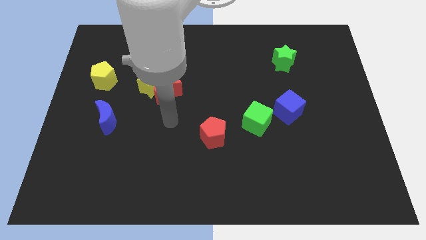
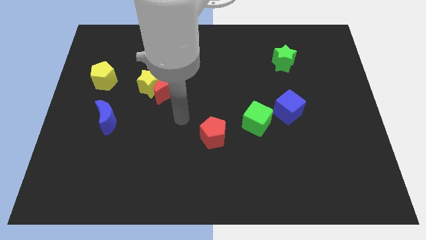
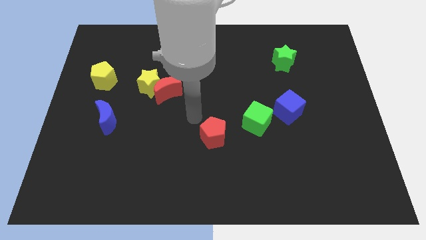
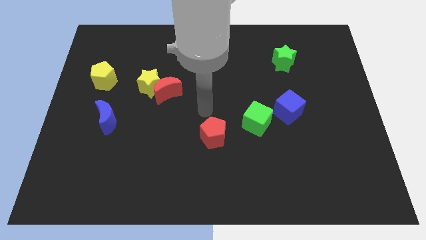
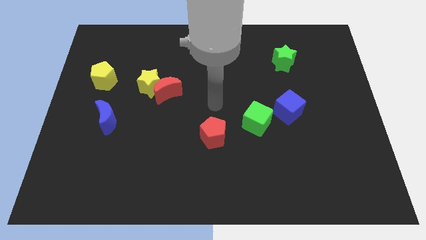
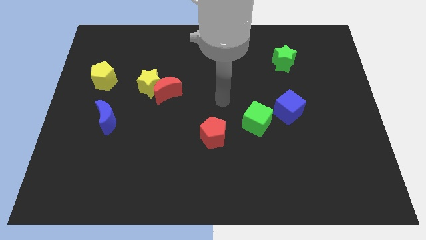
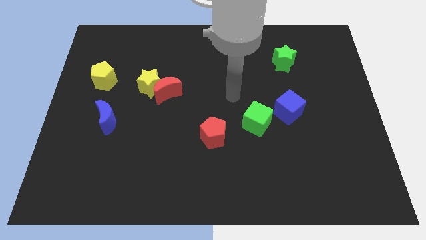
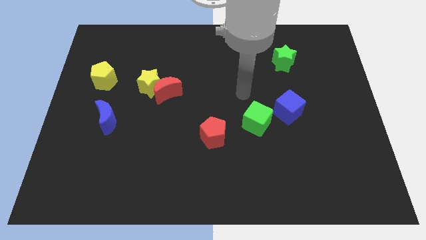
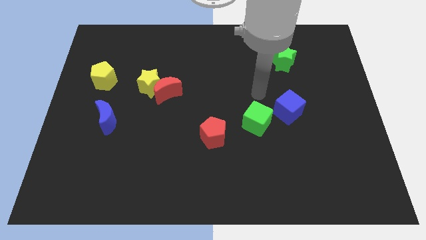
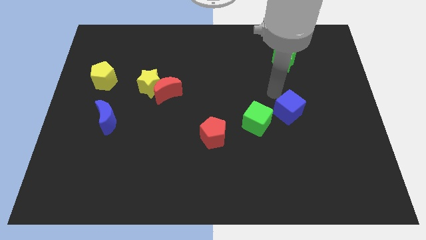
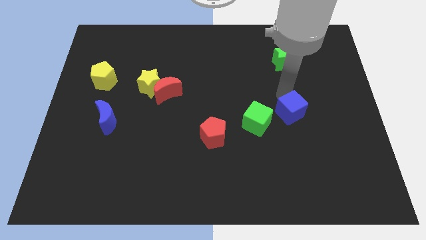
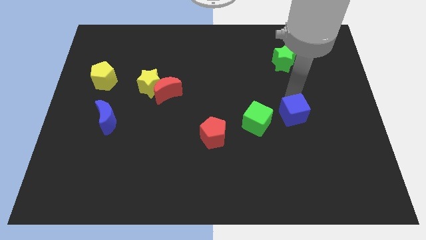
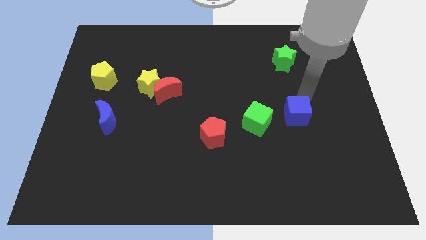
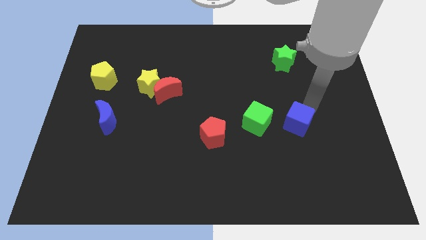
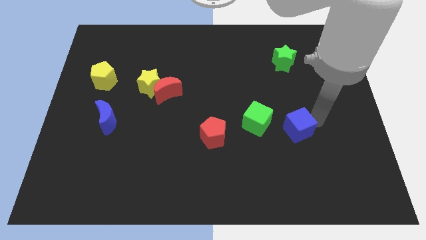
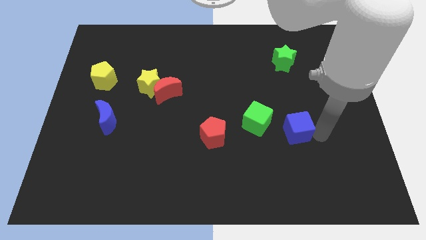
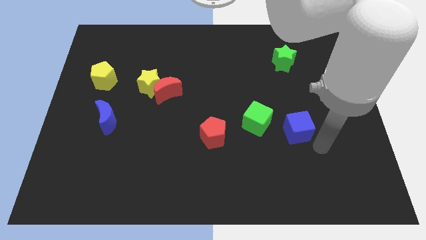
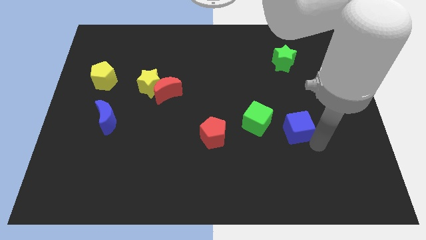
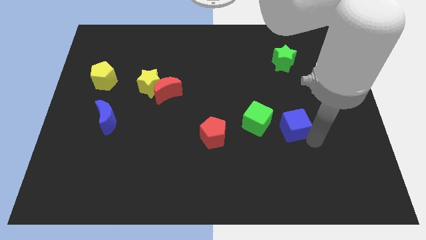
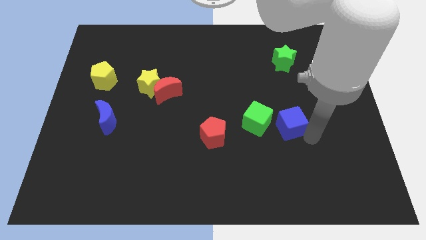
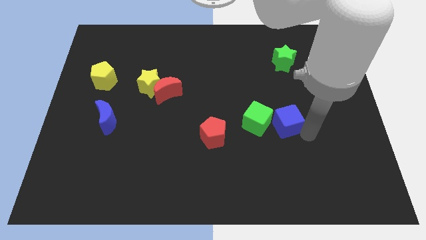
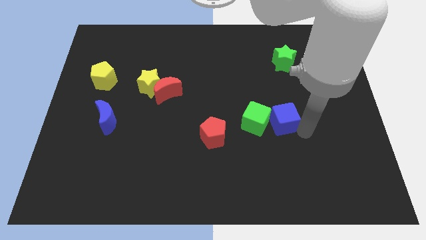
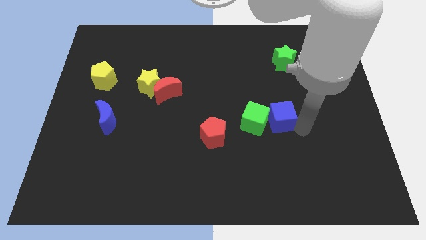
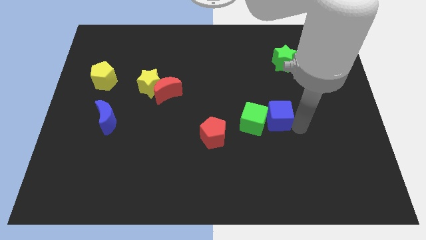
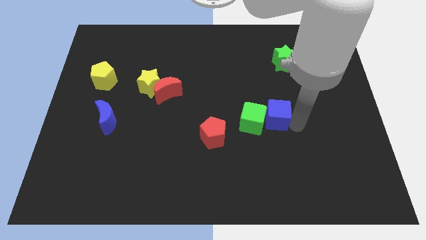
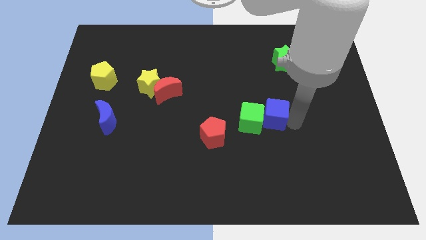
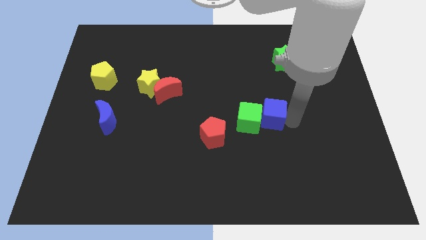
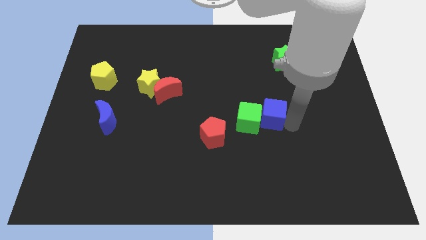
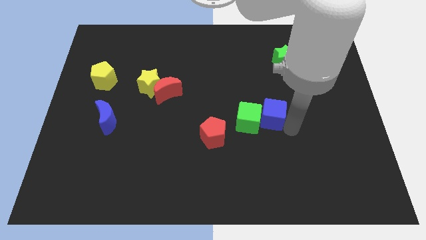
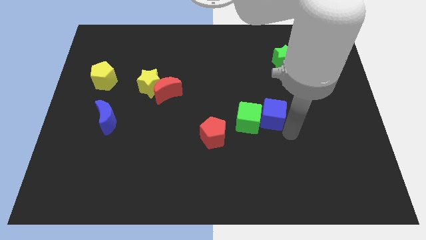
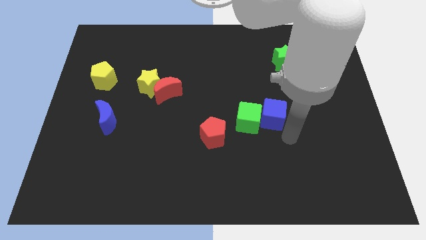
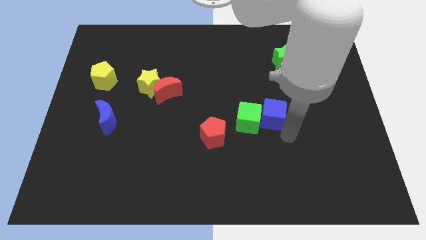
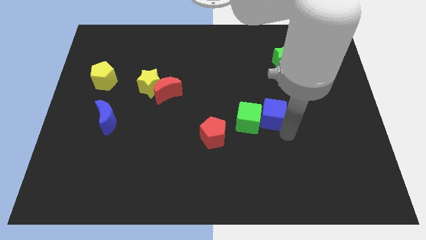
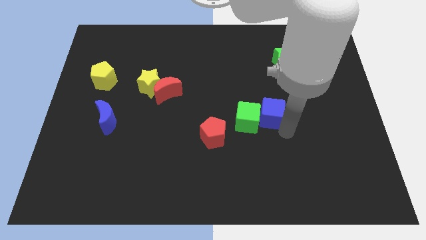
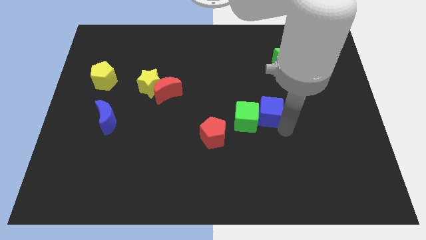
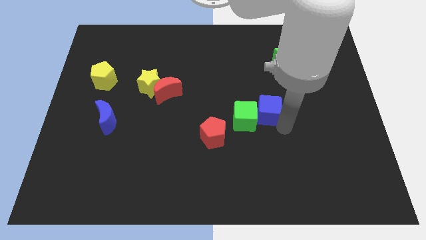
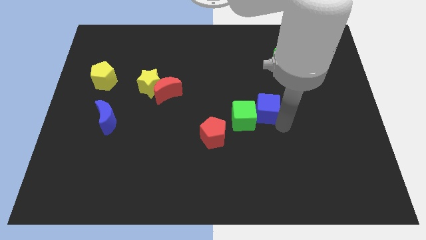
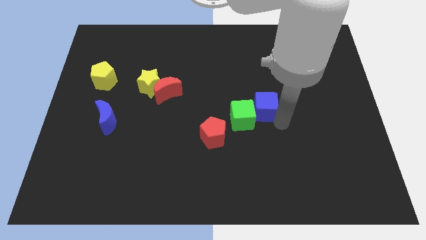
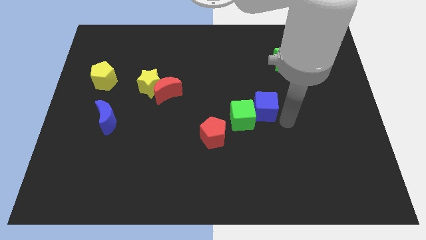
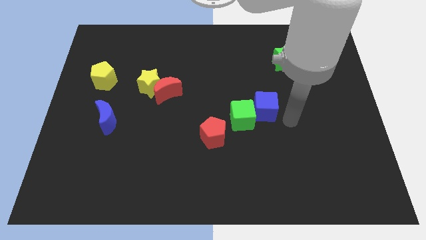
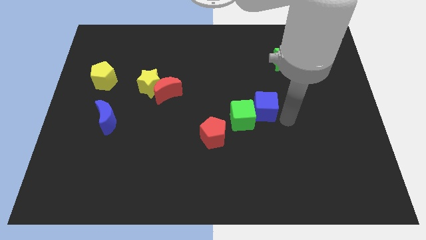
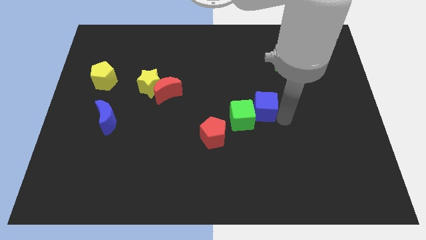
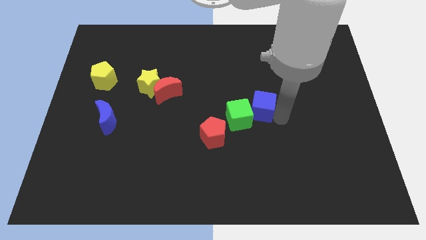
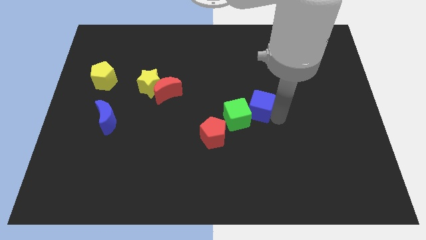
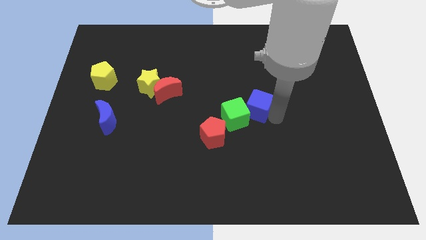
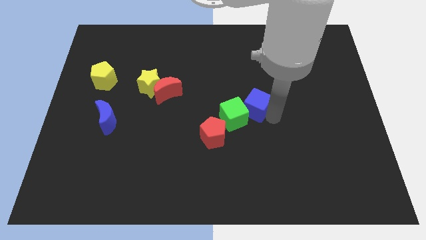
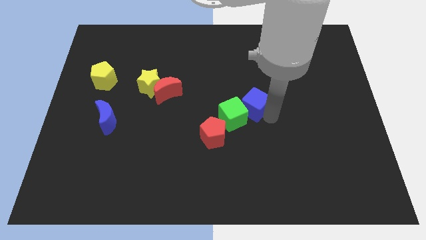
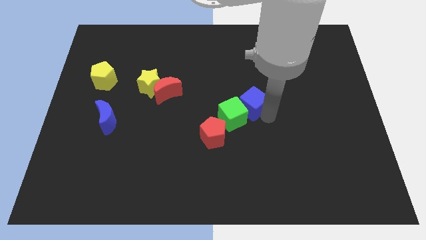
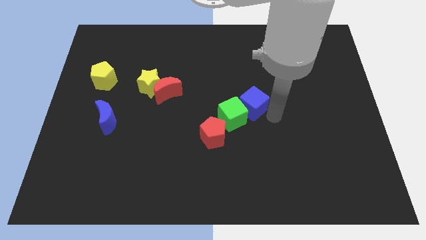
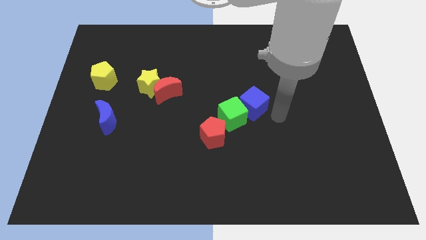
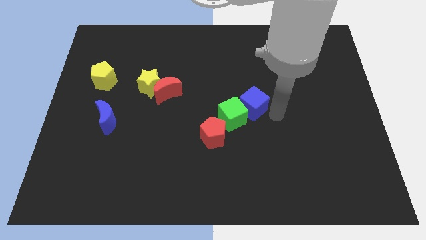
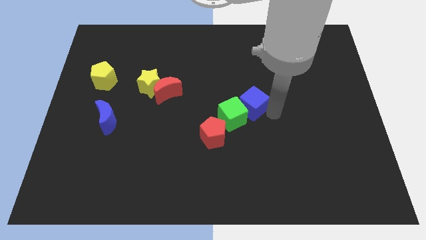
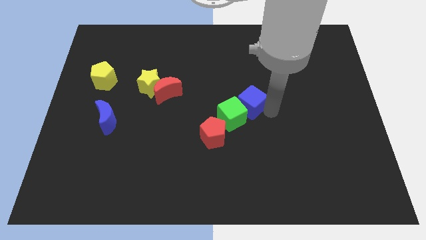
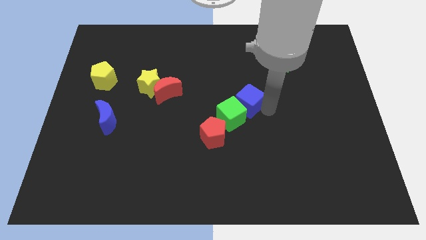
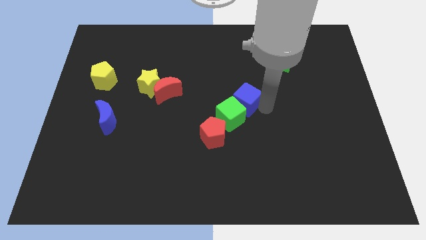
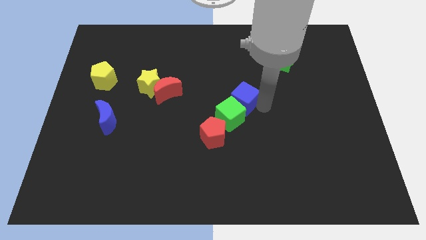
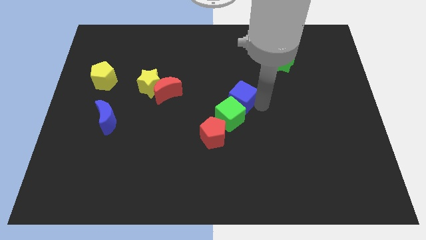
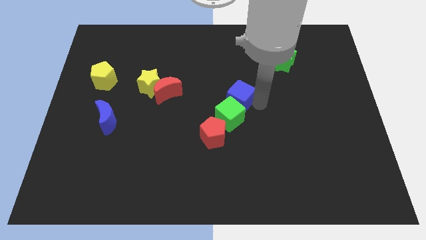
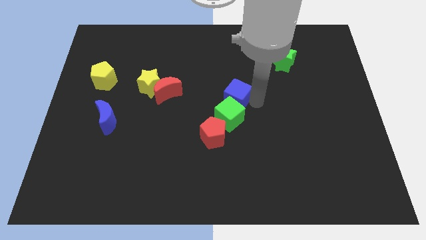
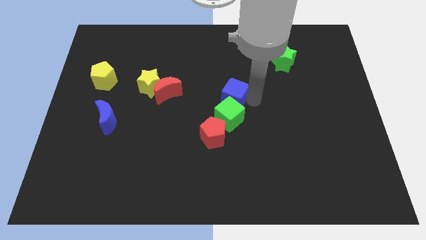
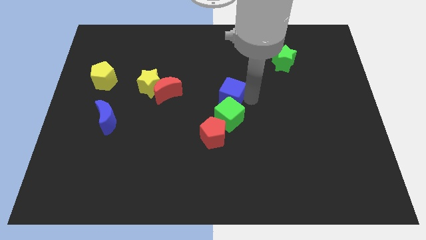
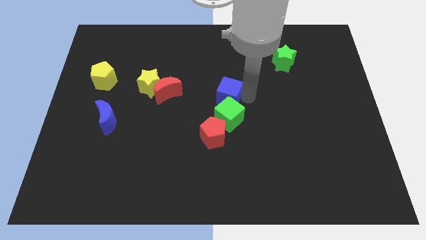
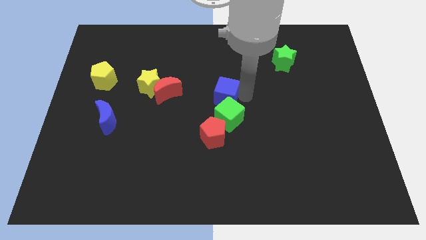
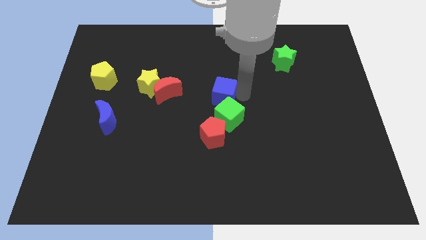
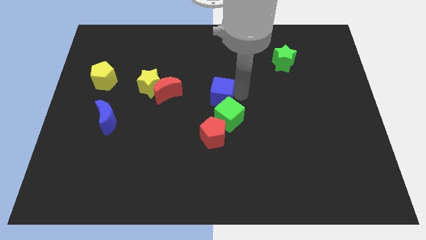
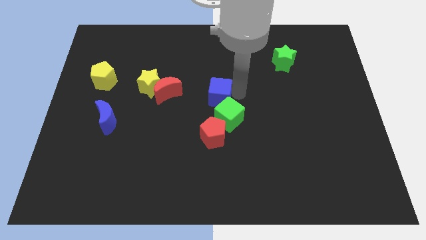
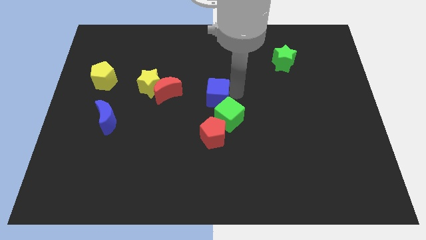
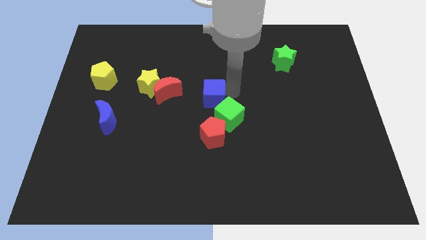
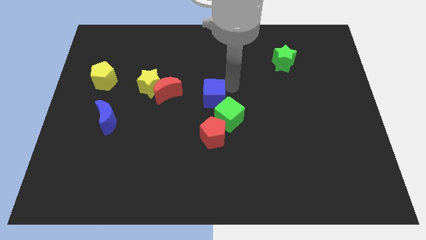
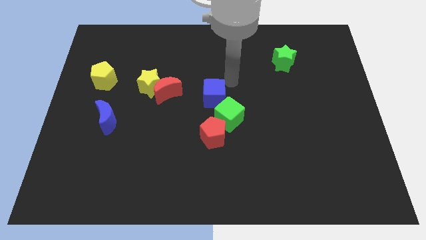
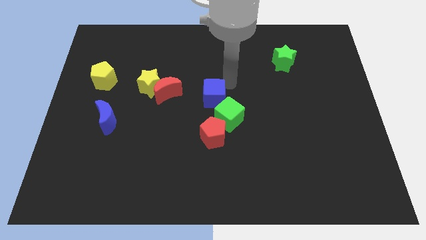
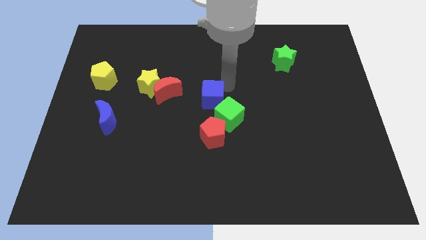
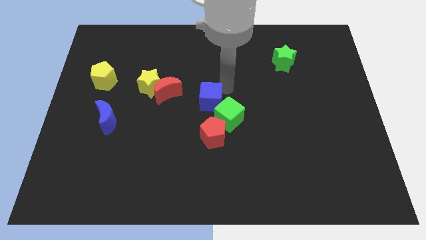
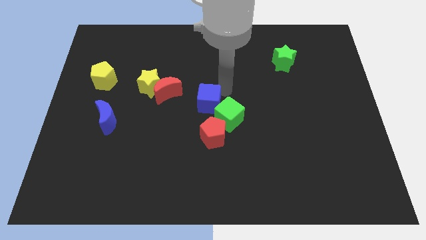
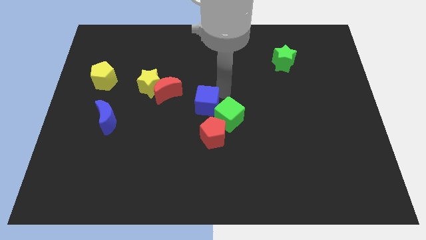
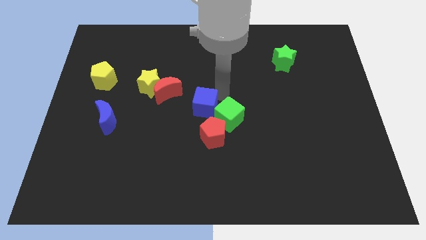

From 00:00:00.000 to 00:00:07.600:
slide the blue cube to the top left of the red pentagon
